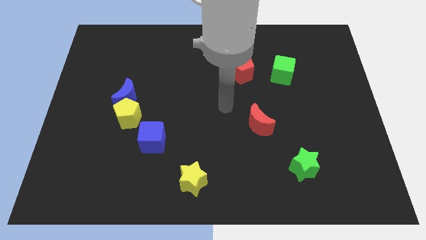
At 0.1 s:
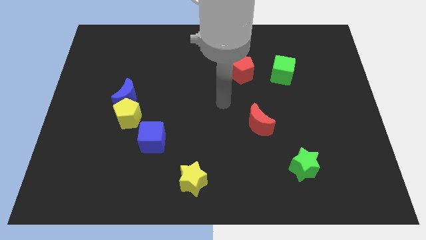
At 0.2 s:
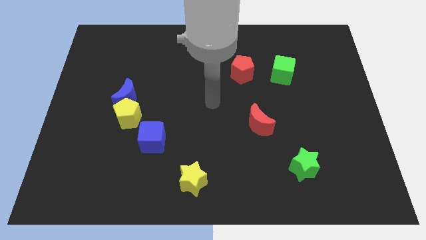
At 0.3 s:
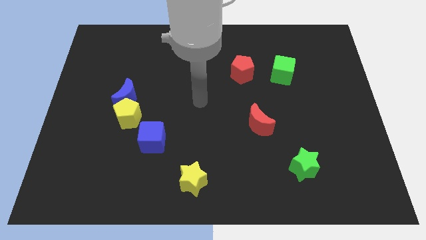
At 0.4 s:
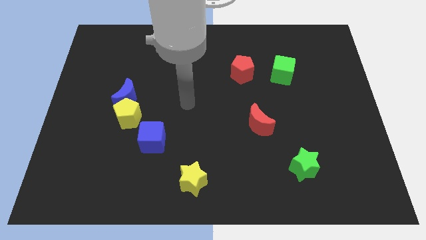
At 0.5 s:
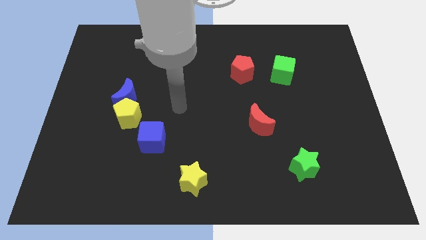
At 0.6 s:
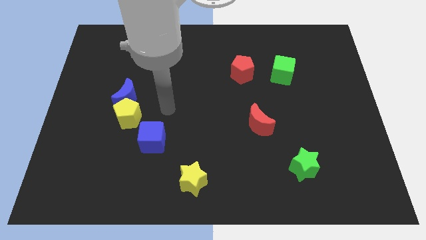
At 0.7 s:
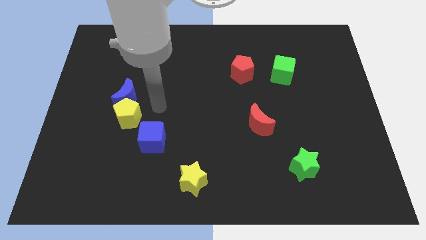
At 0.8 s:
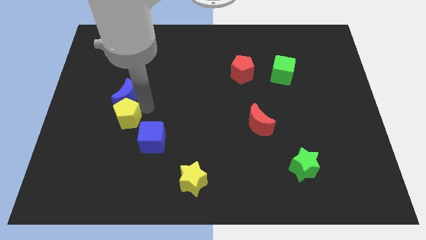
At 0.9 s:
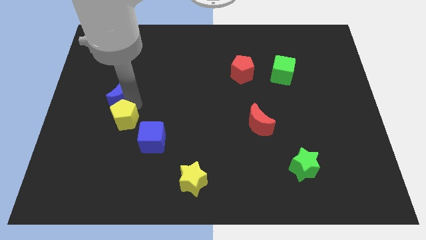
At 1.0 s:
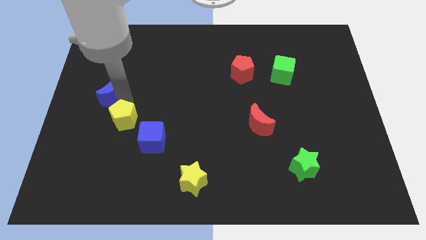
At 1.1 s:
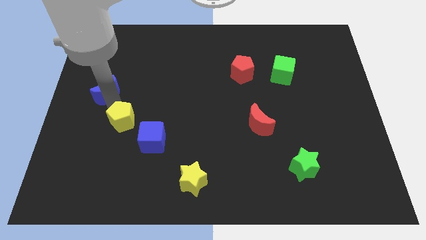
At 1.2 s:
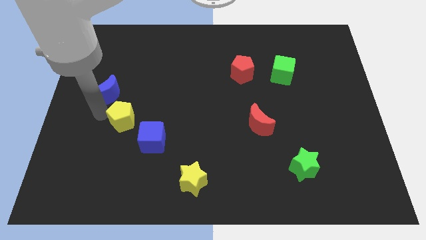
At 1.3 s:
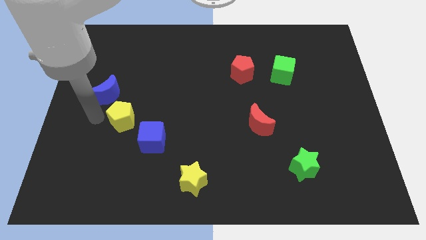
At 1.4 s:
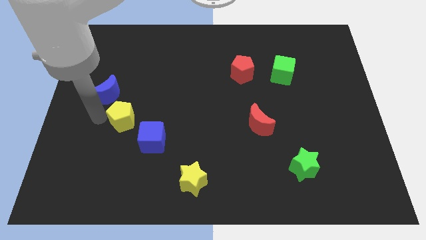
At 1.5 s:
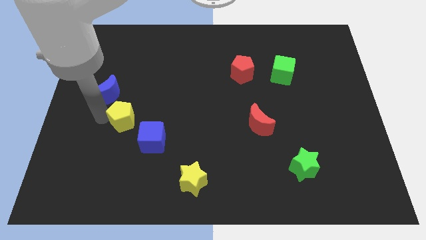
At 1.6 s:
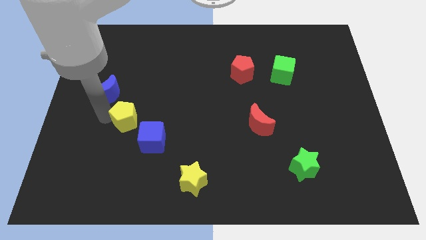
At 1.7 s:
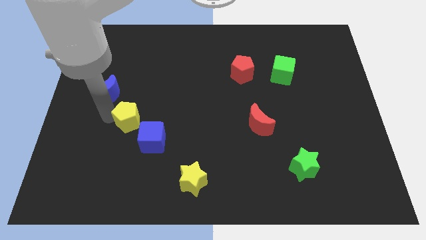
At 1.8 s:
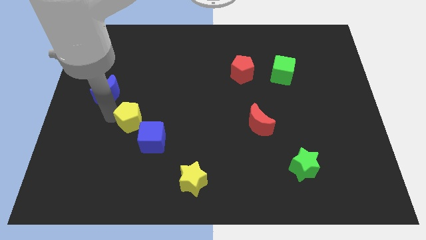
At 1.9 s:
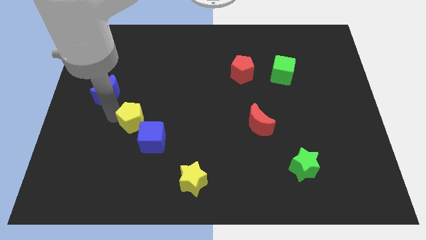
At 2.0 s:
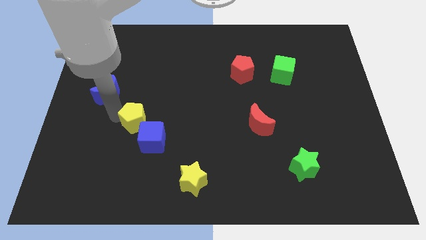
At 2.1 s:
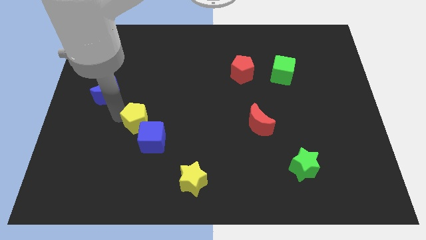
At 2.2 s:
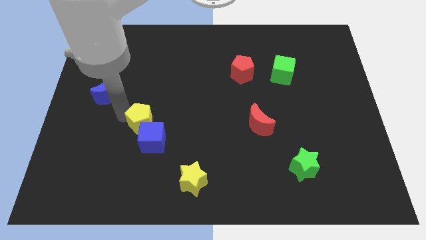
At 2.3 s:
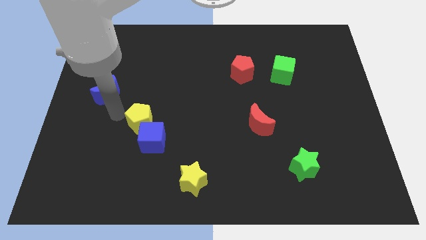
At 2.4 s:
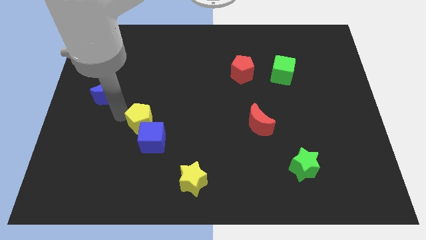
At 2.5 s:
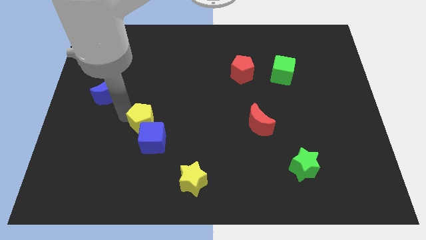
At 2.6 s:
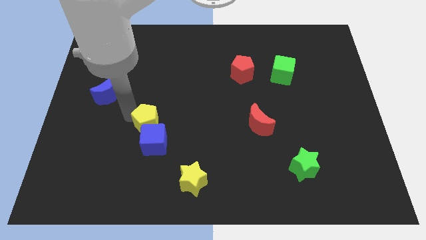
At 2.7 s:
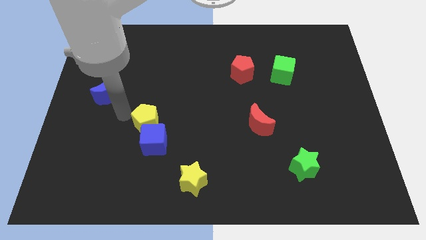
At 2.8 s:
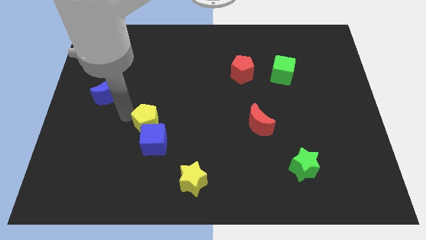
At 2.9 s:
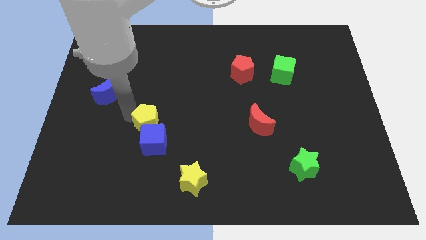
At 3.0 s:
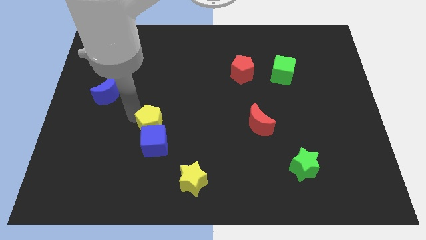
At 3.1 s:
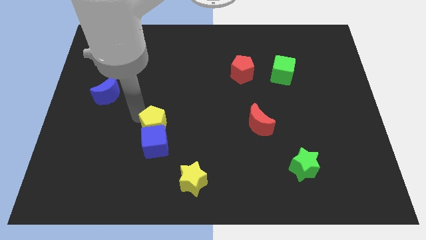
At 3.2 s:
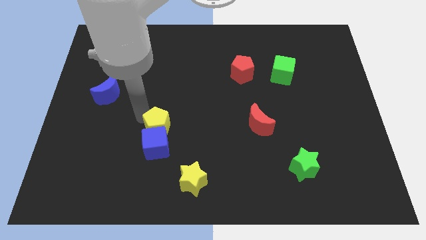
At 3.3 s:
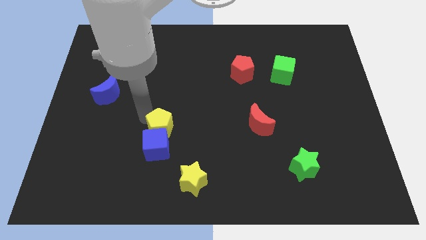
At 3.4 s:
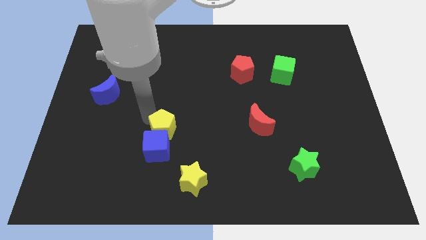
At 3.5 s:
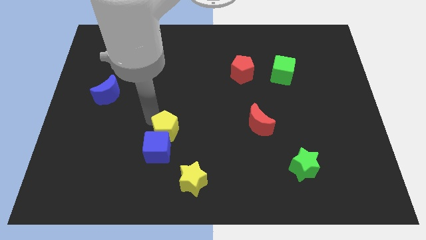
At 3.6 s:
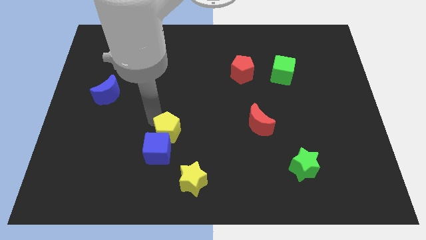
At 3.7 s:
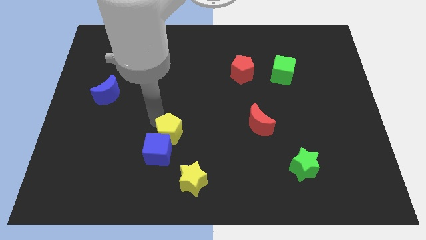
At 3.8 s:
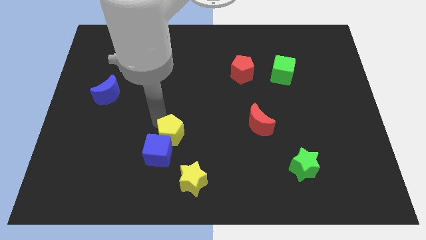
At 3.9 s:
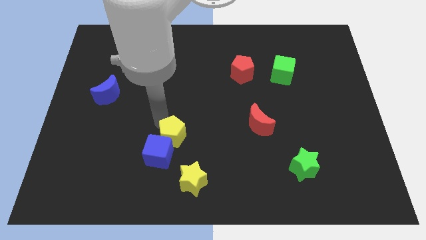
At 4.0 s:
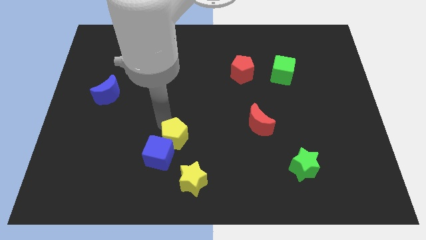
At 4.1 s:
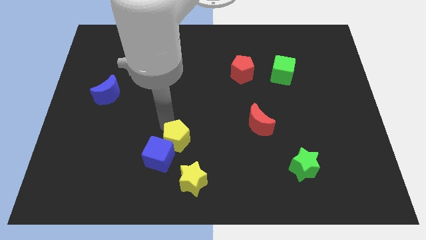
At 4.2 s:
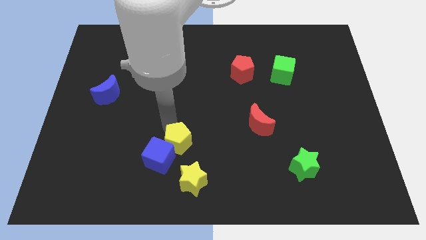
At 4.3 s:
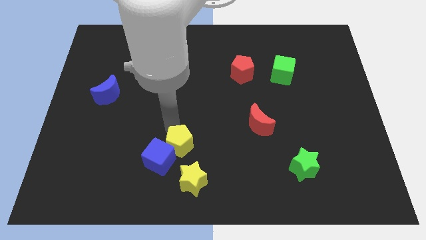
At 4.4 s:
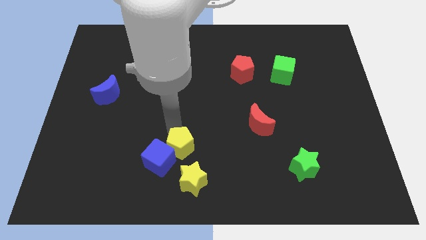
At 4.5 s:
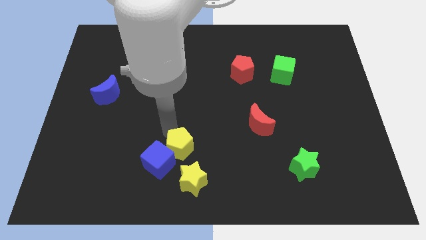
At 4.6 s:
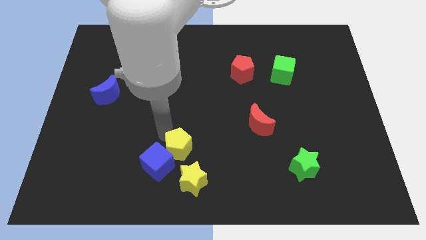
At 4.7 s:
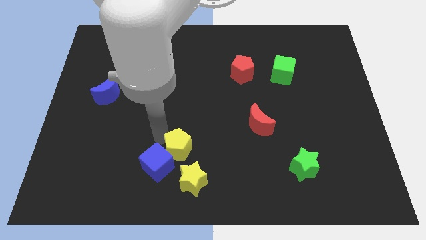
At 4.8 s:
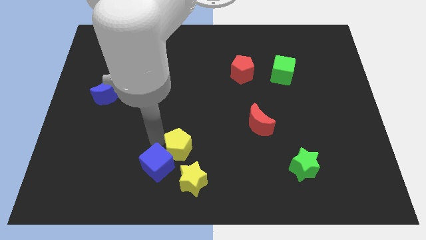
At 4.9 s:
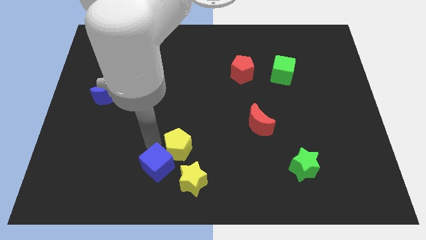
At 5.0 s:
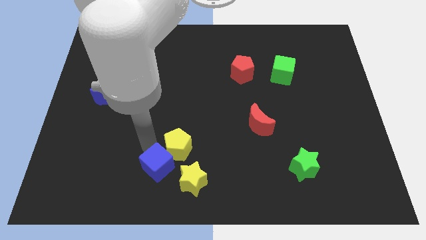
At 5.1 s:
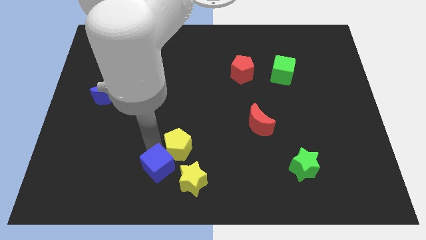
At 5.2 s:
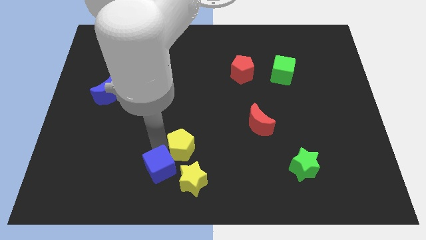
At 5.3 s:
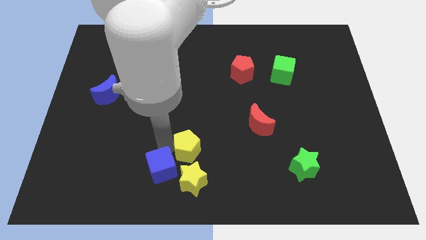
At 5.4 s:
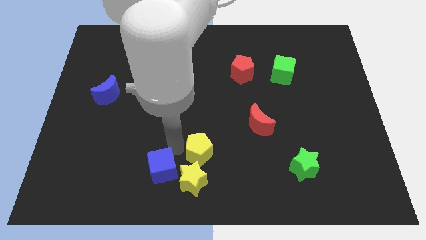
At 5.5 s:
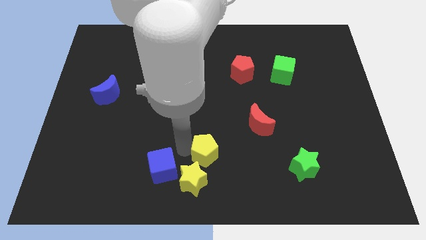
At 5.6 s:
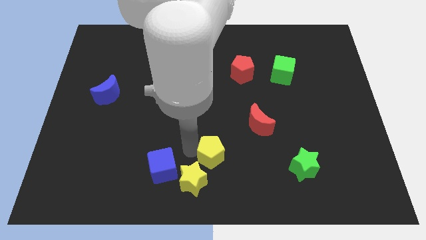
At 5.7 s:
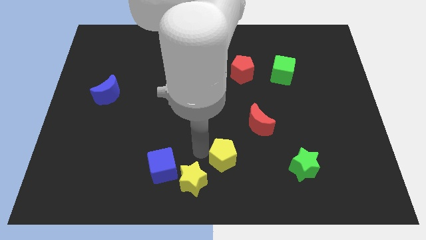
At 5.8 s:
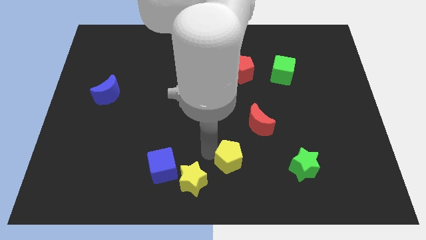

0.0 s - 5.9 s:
put the yellow pentagon to the right side of the yellow star

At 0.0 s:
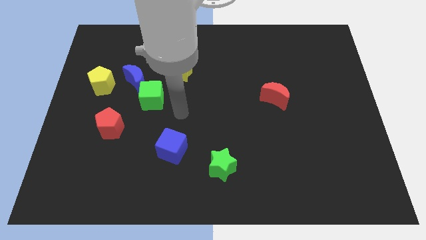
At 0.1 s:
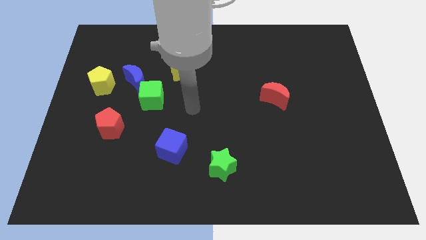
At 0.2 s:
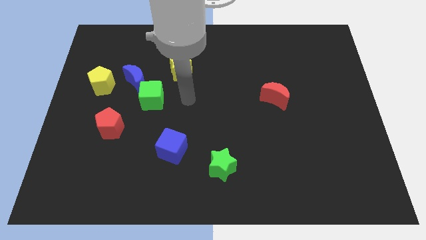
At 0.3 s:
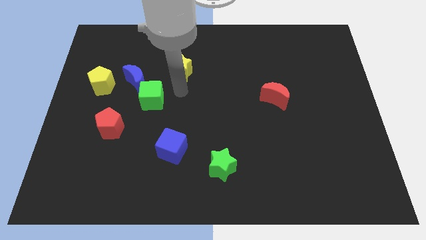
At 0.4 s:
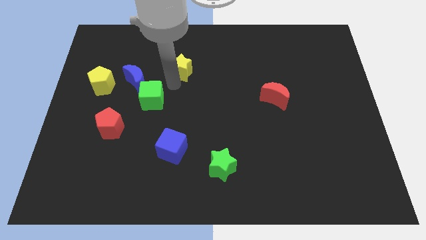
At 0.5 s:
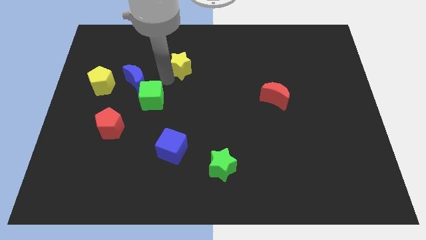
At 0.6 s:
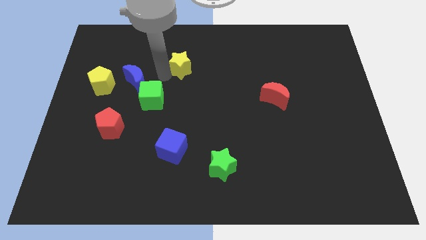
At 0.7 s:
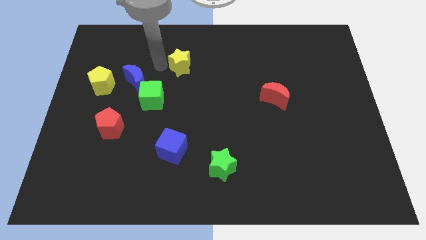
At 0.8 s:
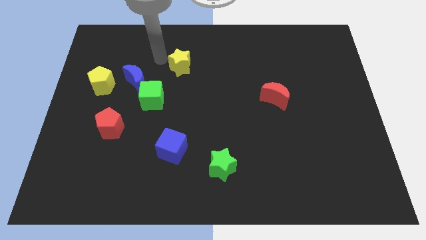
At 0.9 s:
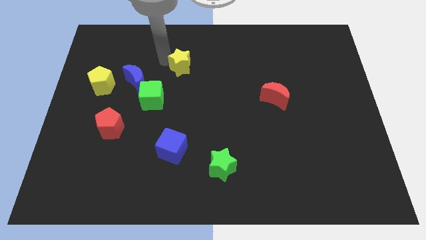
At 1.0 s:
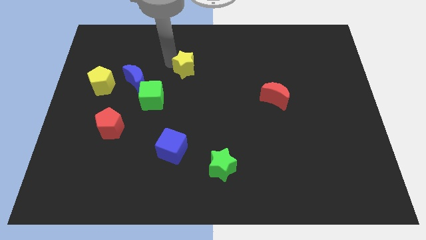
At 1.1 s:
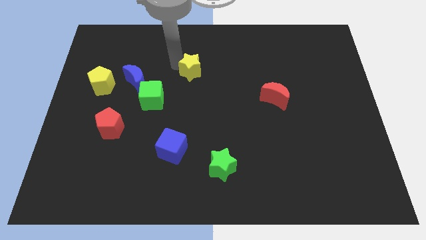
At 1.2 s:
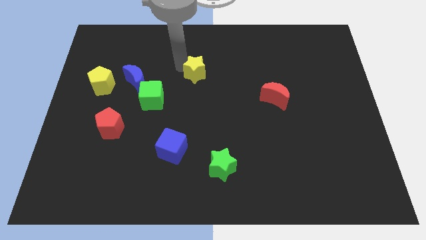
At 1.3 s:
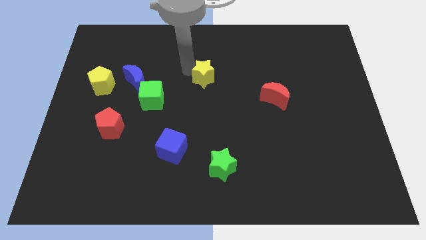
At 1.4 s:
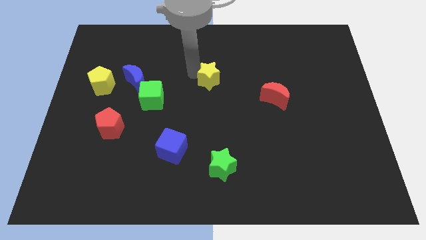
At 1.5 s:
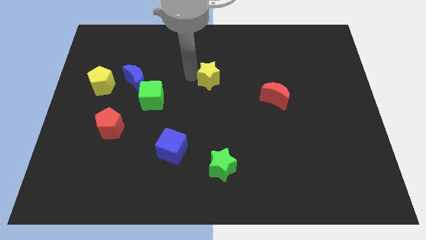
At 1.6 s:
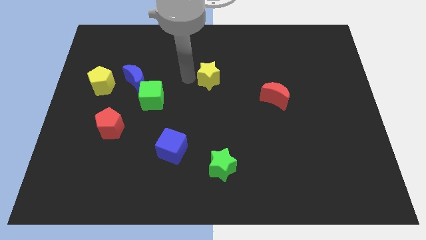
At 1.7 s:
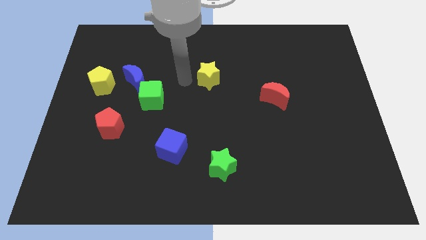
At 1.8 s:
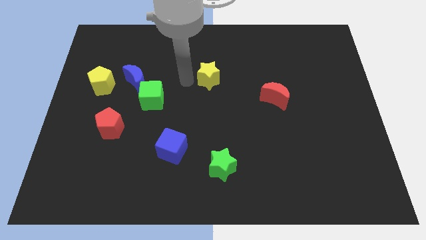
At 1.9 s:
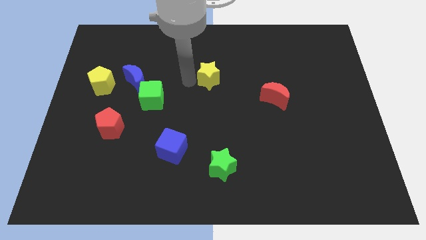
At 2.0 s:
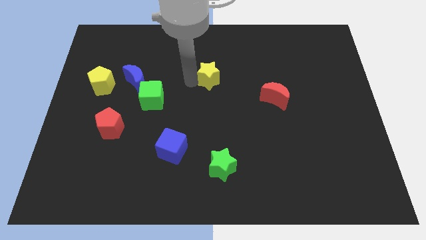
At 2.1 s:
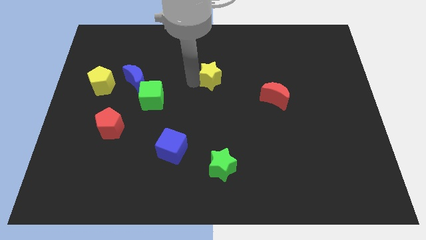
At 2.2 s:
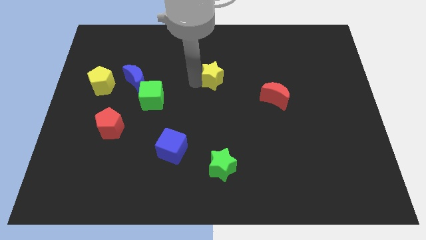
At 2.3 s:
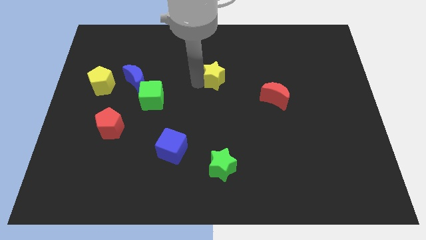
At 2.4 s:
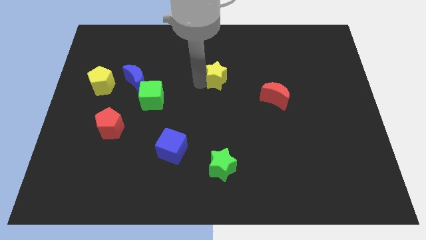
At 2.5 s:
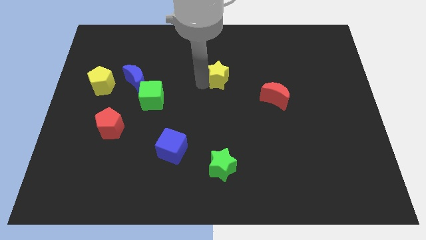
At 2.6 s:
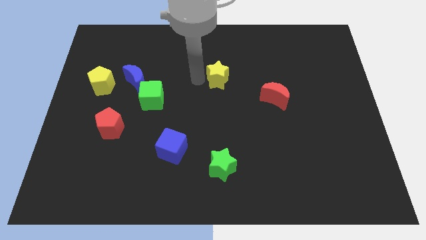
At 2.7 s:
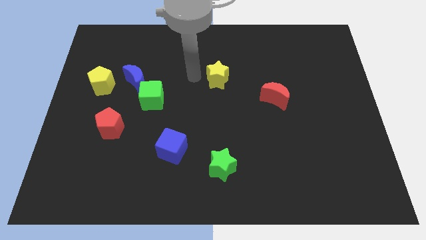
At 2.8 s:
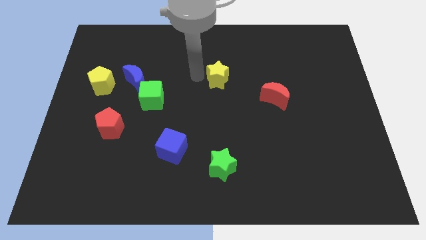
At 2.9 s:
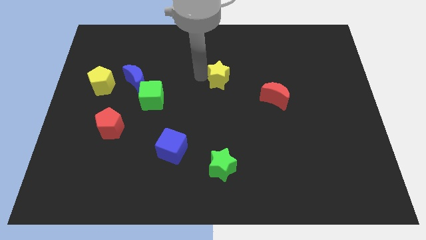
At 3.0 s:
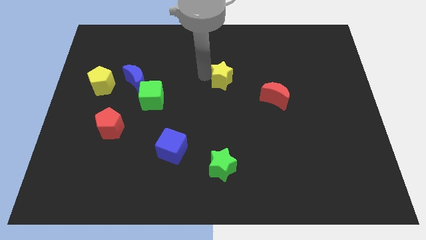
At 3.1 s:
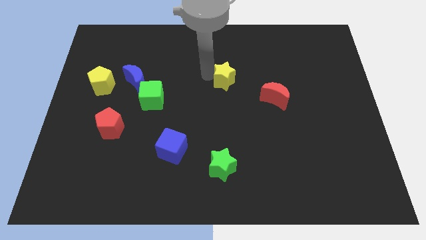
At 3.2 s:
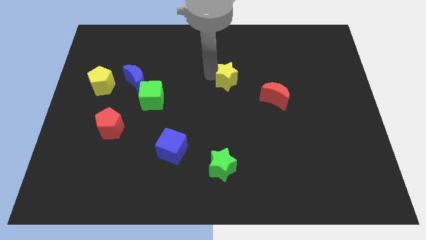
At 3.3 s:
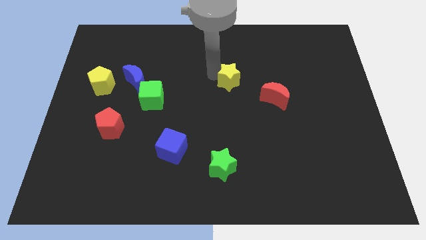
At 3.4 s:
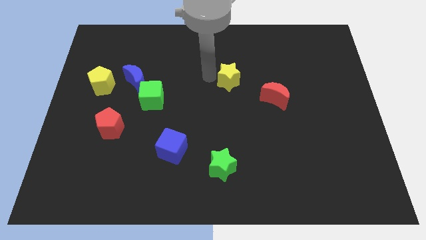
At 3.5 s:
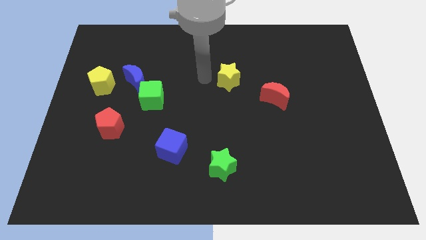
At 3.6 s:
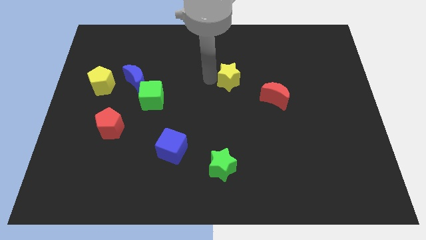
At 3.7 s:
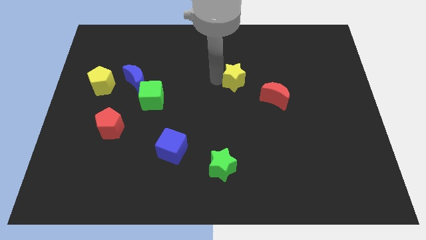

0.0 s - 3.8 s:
slide the yellow star to the top left side of the red moon
